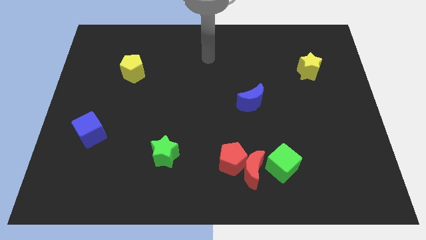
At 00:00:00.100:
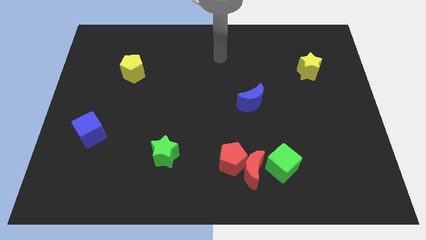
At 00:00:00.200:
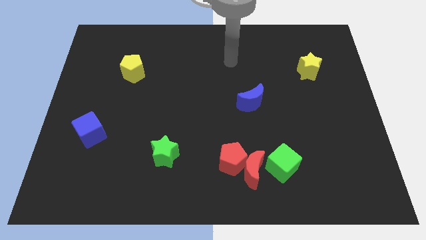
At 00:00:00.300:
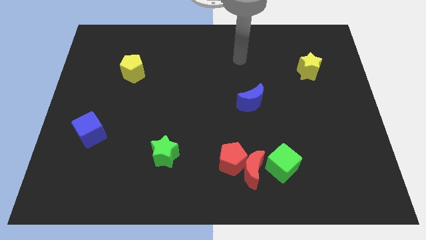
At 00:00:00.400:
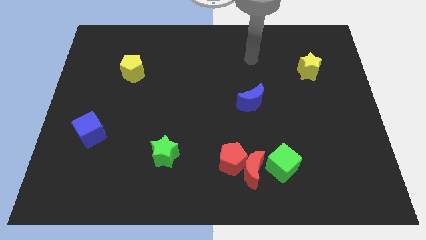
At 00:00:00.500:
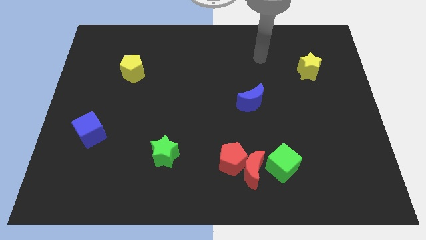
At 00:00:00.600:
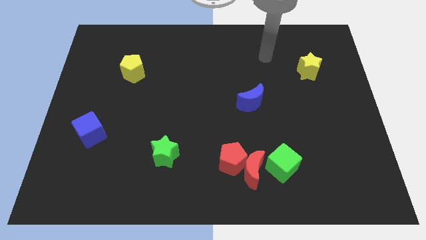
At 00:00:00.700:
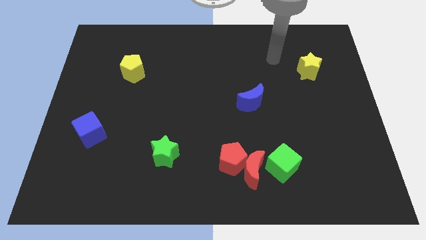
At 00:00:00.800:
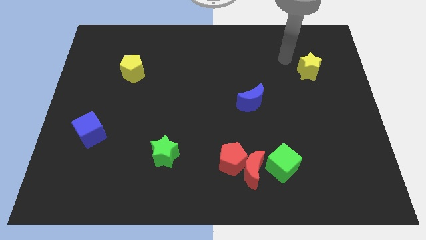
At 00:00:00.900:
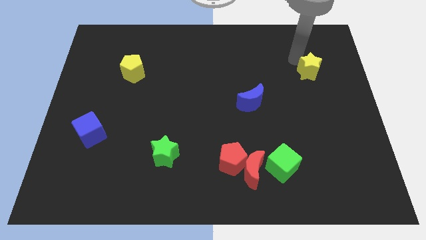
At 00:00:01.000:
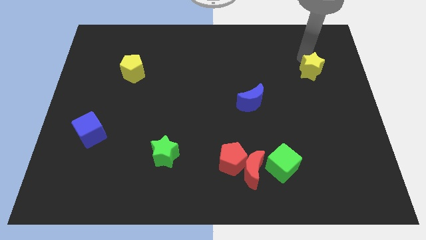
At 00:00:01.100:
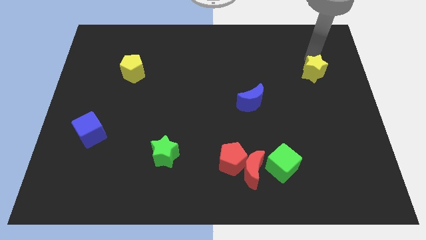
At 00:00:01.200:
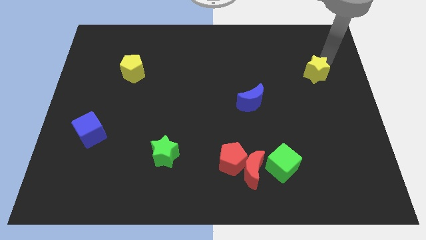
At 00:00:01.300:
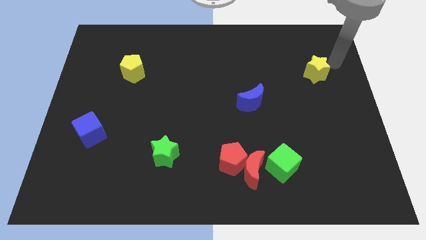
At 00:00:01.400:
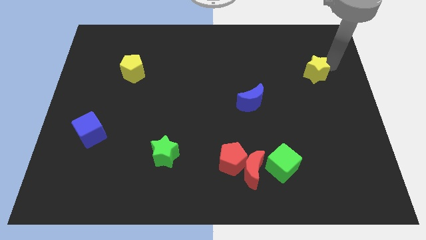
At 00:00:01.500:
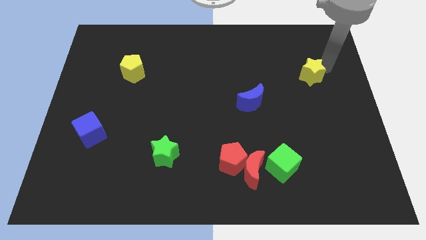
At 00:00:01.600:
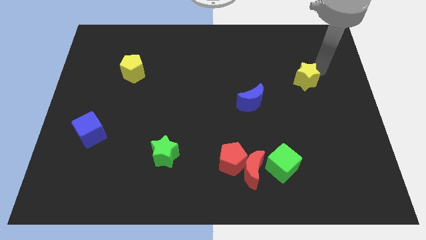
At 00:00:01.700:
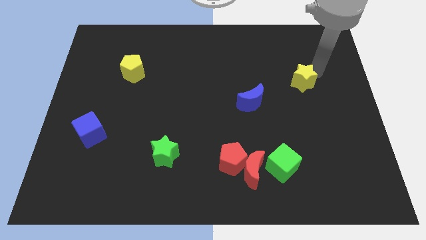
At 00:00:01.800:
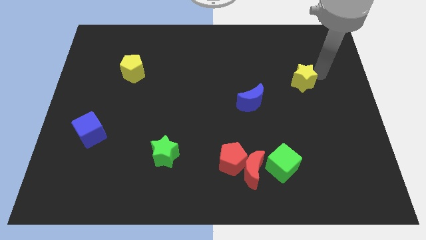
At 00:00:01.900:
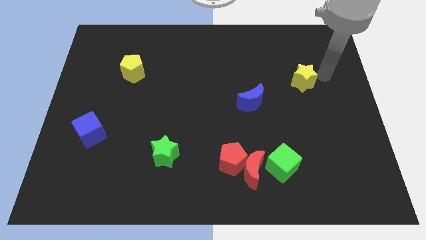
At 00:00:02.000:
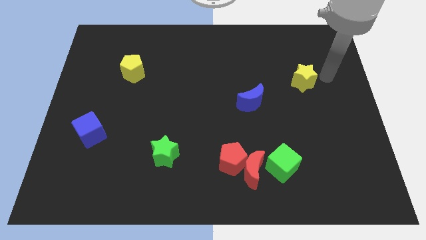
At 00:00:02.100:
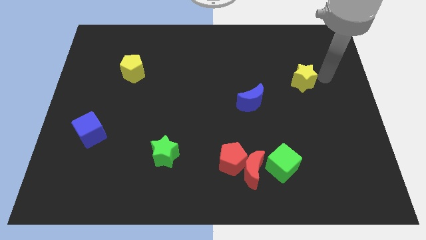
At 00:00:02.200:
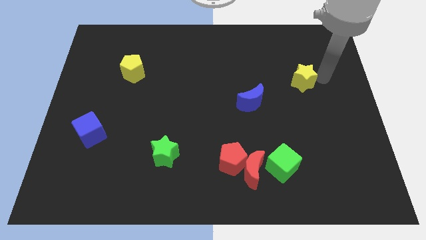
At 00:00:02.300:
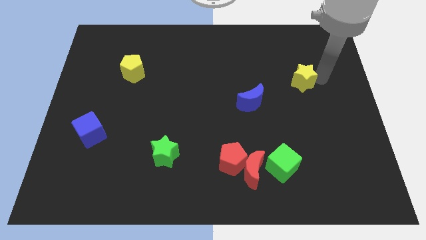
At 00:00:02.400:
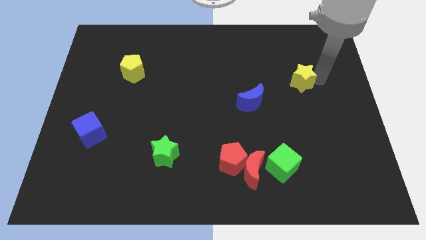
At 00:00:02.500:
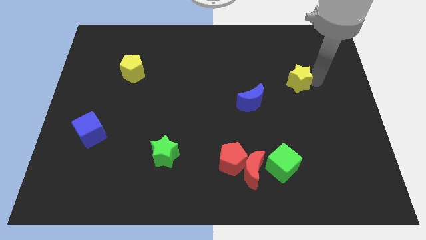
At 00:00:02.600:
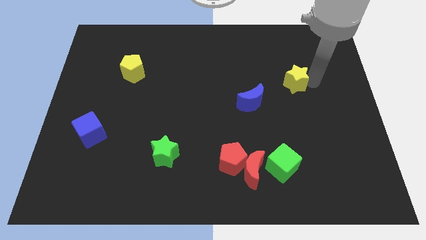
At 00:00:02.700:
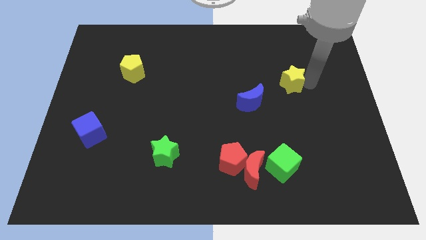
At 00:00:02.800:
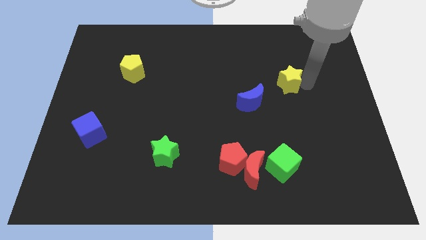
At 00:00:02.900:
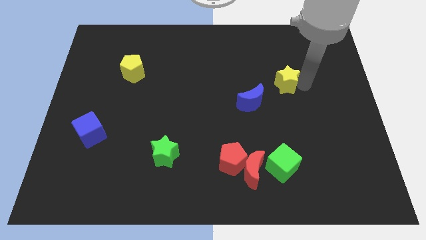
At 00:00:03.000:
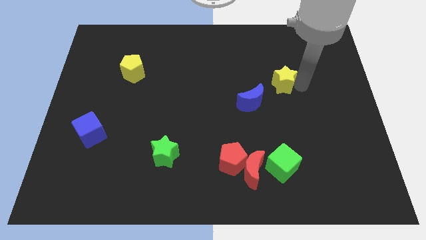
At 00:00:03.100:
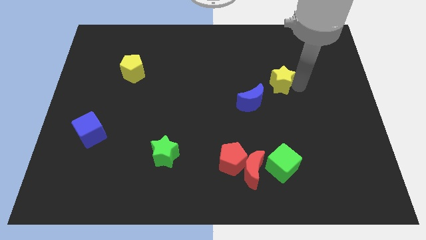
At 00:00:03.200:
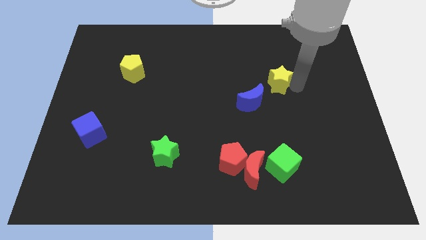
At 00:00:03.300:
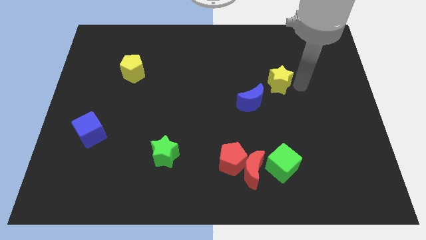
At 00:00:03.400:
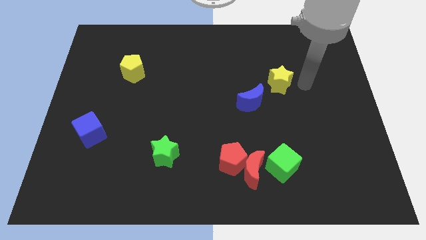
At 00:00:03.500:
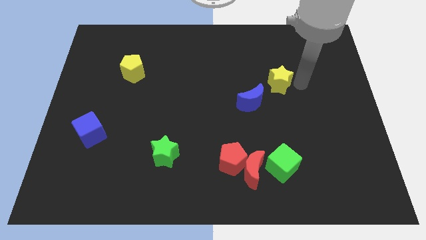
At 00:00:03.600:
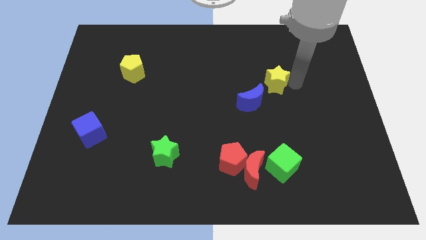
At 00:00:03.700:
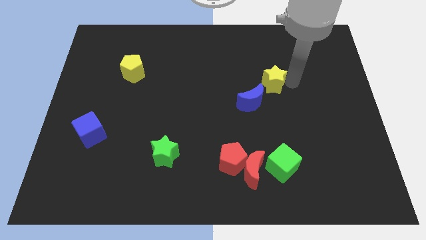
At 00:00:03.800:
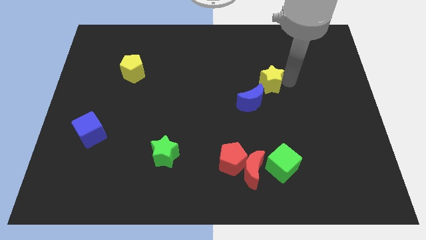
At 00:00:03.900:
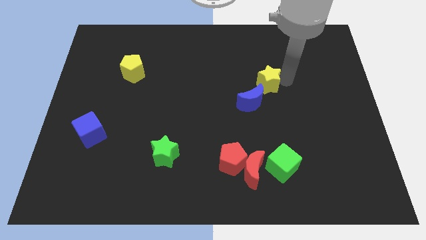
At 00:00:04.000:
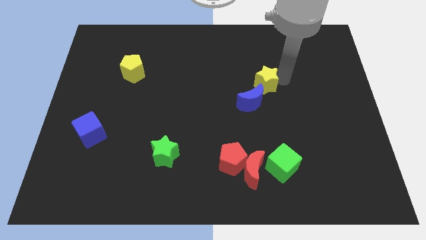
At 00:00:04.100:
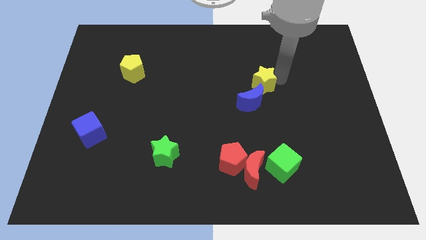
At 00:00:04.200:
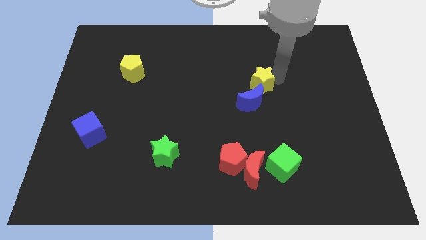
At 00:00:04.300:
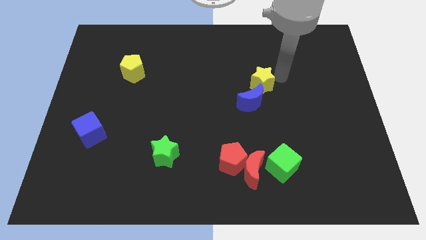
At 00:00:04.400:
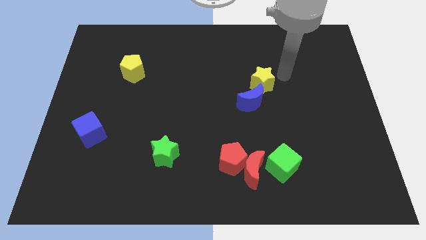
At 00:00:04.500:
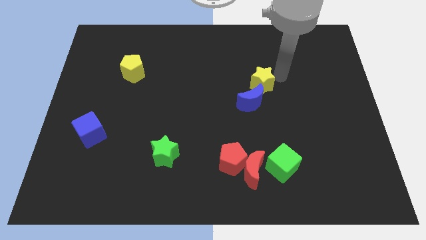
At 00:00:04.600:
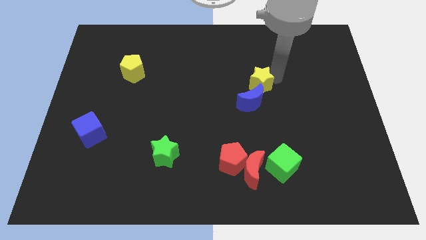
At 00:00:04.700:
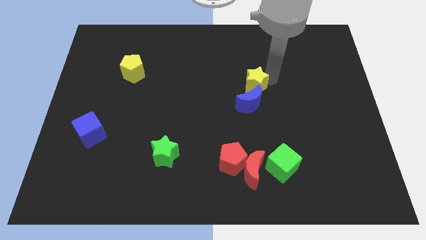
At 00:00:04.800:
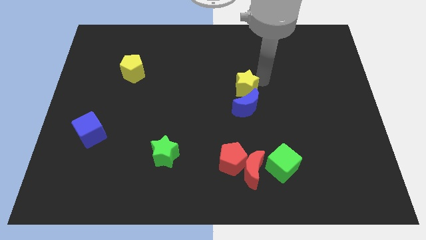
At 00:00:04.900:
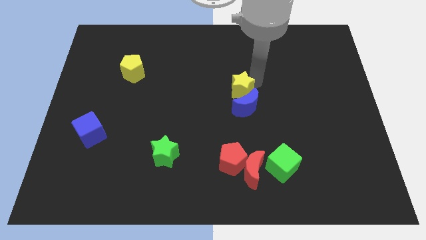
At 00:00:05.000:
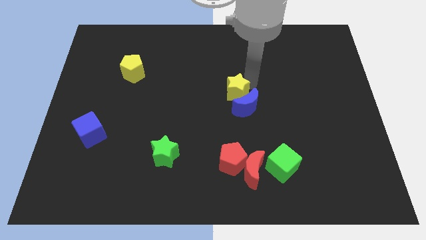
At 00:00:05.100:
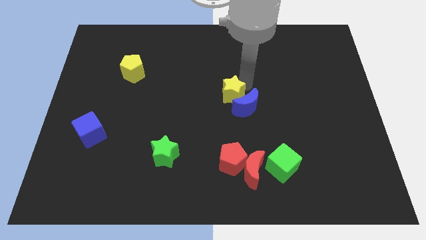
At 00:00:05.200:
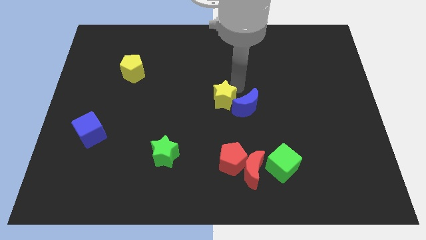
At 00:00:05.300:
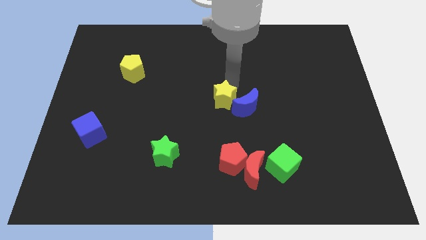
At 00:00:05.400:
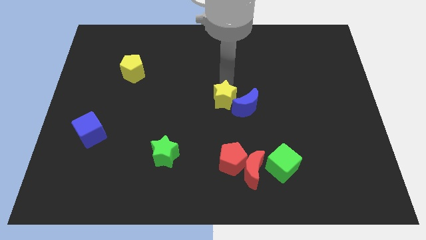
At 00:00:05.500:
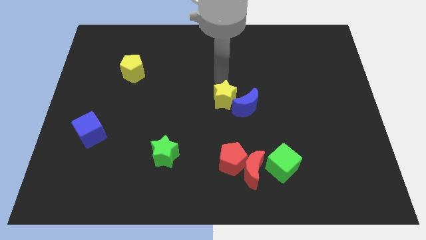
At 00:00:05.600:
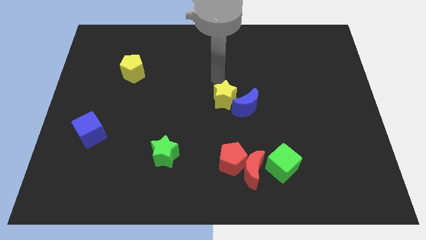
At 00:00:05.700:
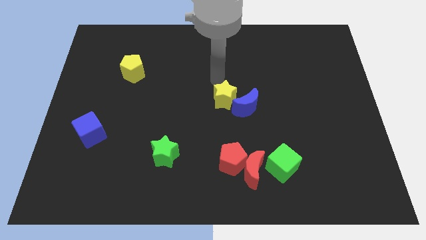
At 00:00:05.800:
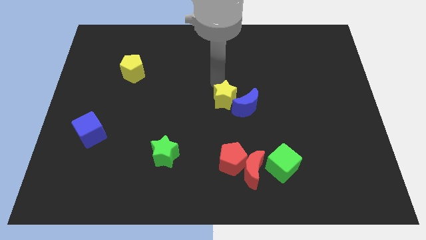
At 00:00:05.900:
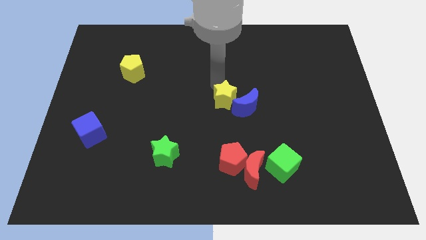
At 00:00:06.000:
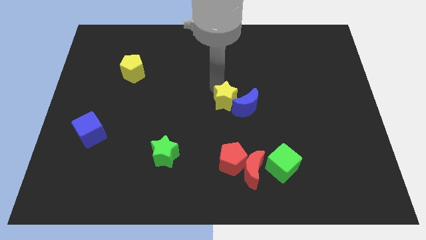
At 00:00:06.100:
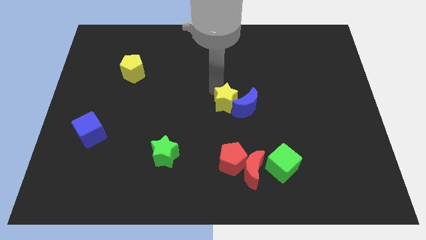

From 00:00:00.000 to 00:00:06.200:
put the yellow star to the top of the red pentagon
